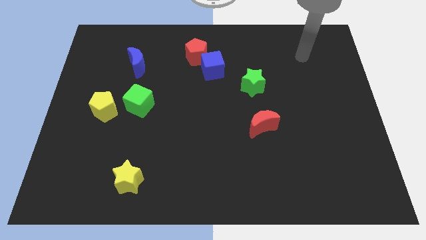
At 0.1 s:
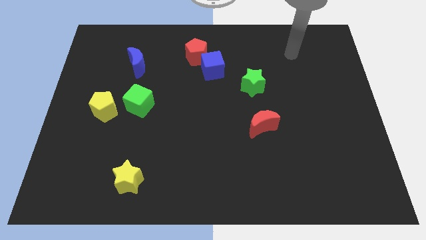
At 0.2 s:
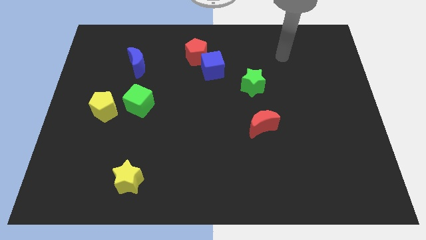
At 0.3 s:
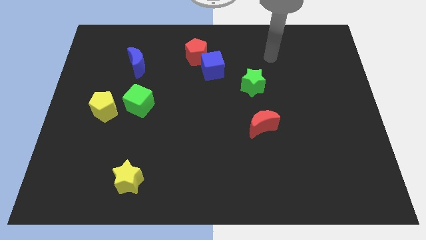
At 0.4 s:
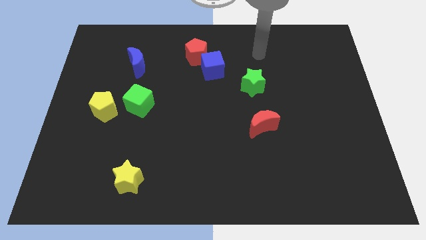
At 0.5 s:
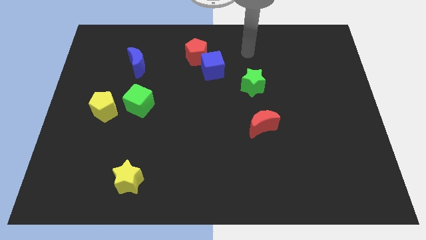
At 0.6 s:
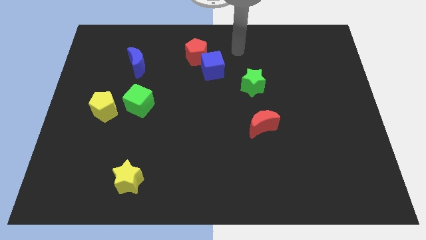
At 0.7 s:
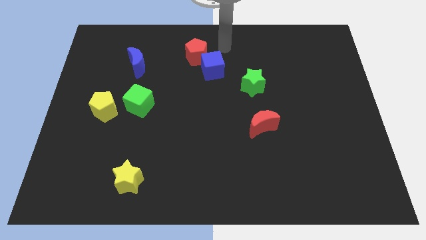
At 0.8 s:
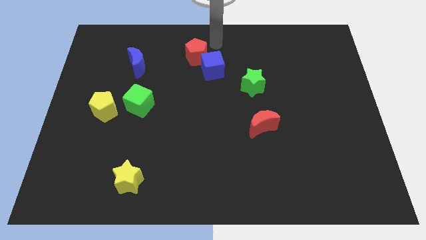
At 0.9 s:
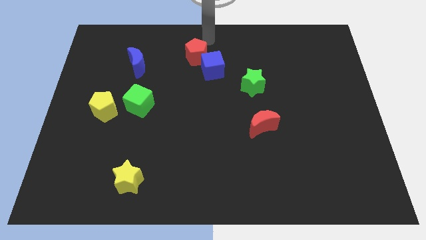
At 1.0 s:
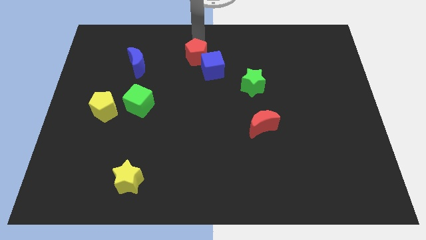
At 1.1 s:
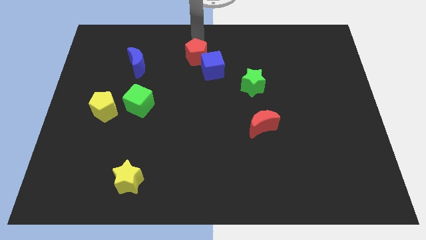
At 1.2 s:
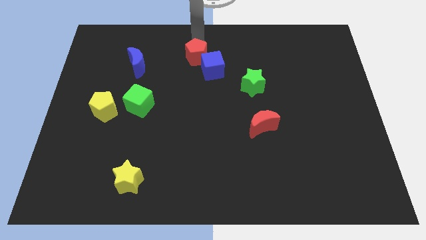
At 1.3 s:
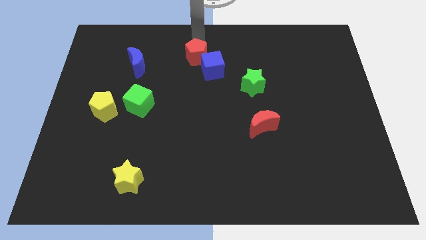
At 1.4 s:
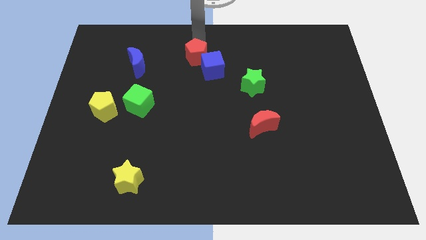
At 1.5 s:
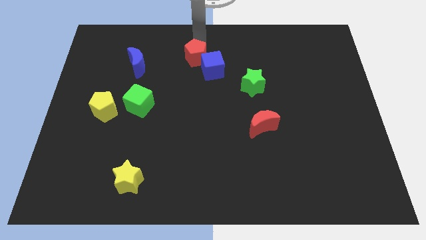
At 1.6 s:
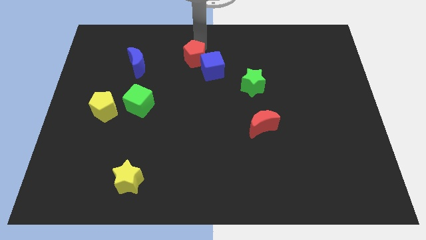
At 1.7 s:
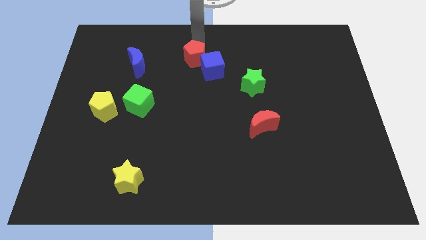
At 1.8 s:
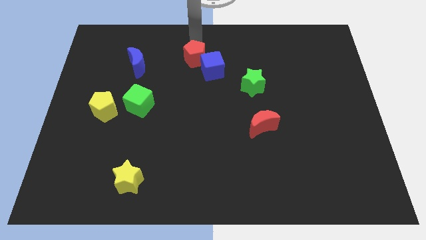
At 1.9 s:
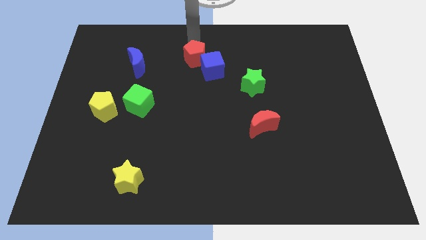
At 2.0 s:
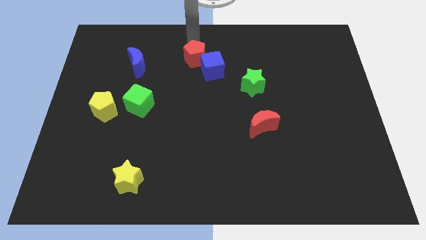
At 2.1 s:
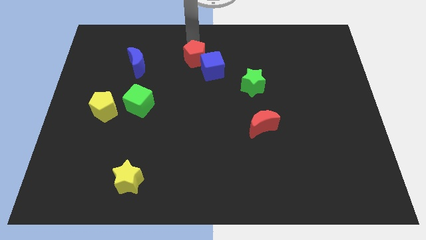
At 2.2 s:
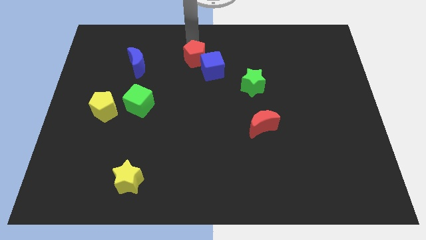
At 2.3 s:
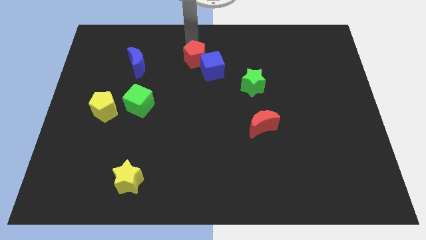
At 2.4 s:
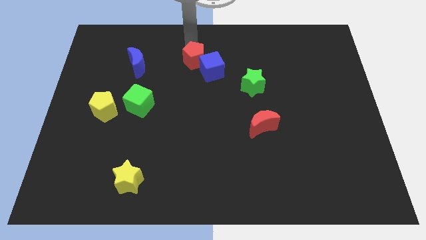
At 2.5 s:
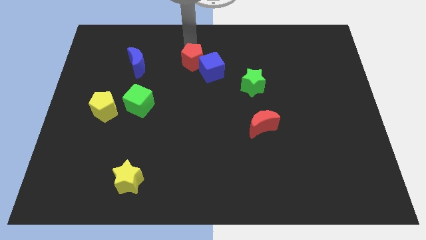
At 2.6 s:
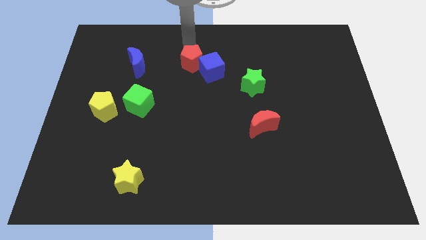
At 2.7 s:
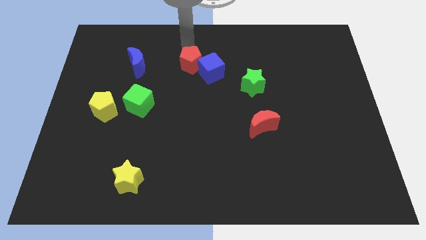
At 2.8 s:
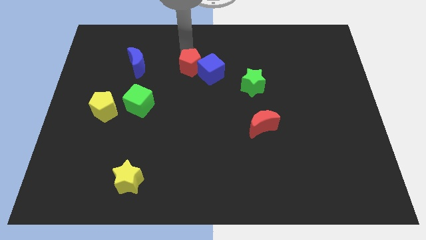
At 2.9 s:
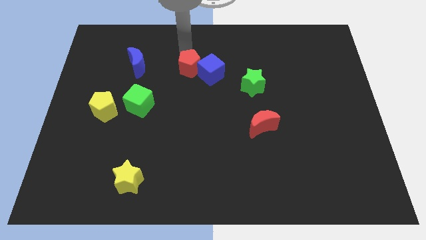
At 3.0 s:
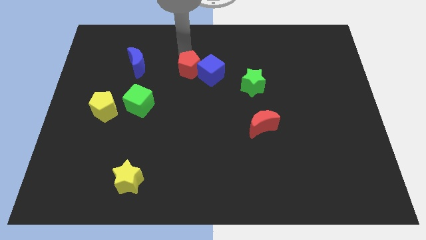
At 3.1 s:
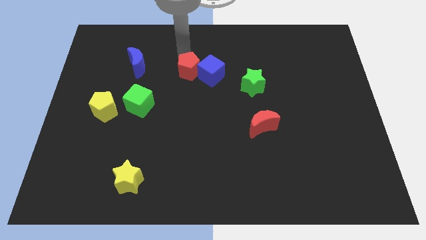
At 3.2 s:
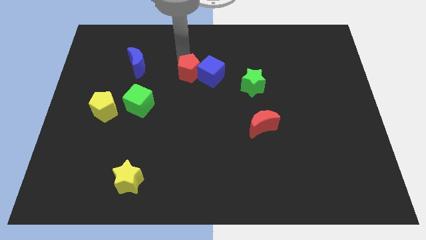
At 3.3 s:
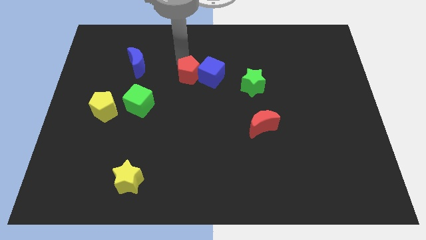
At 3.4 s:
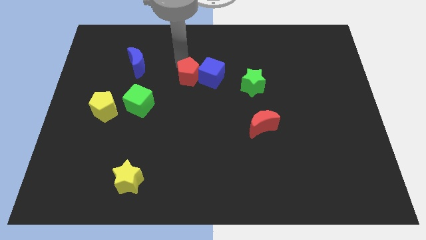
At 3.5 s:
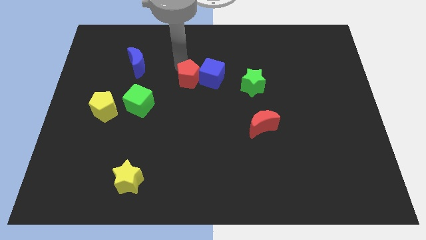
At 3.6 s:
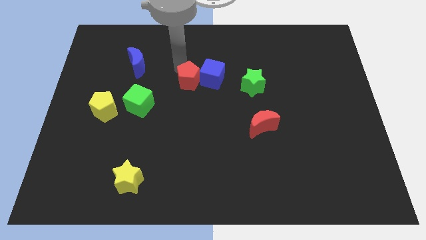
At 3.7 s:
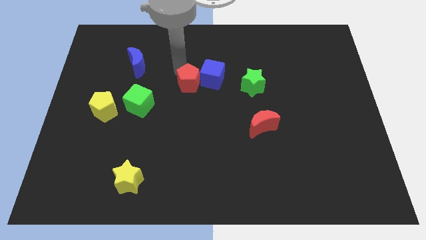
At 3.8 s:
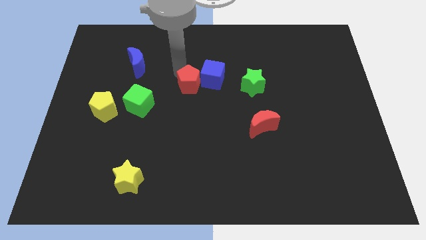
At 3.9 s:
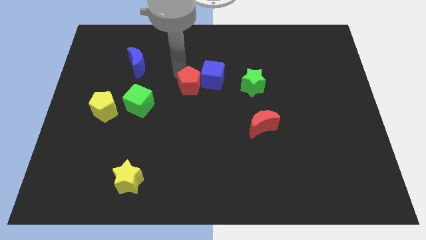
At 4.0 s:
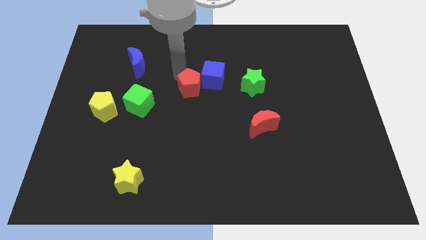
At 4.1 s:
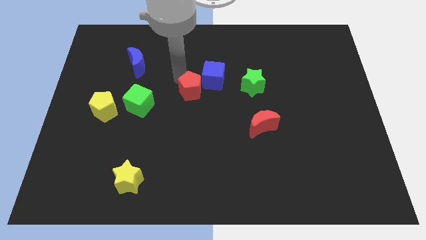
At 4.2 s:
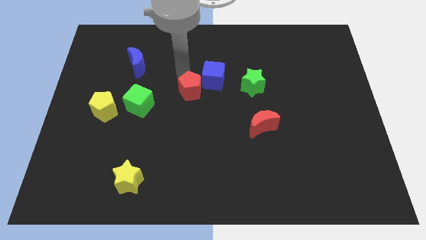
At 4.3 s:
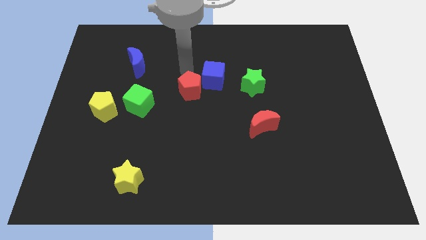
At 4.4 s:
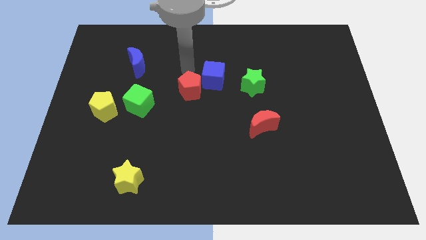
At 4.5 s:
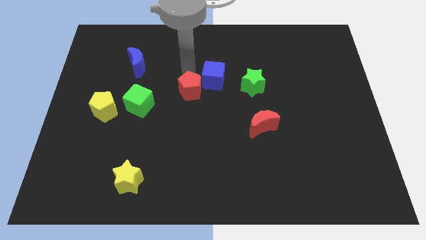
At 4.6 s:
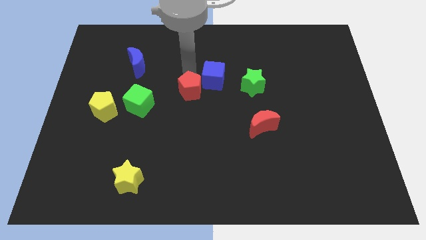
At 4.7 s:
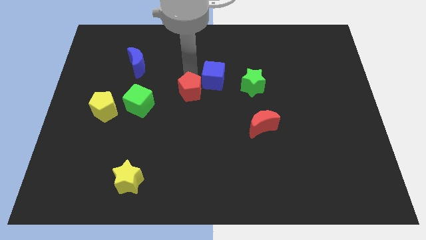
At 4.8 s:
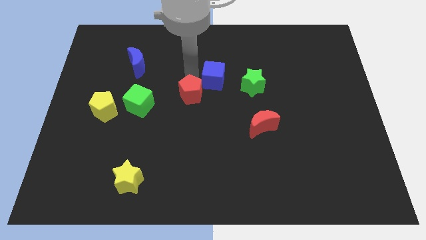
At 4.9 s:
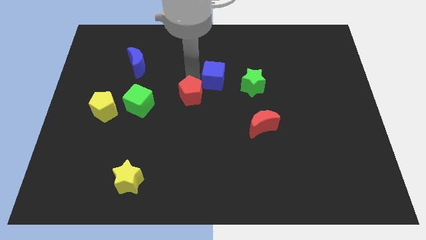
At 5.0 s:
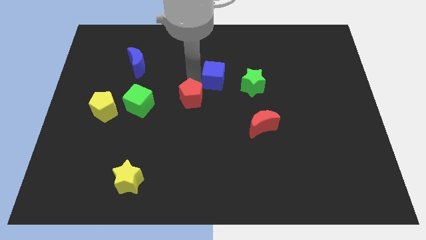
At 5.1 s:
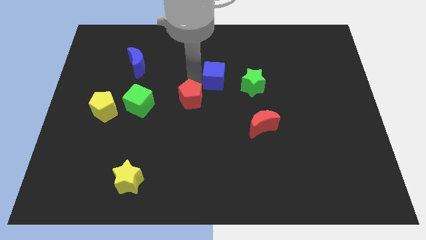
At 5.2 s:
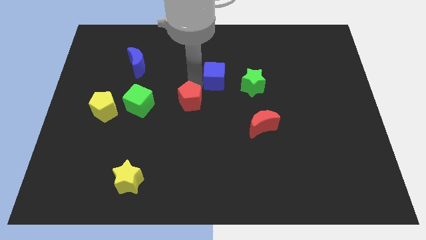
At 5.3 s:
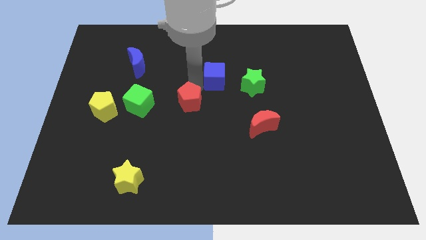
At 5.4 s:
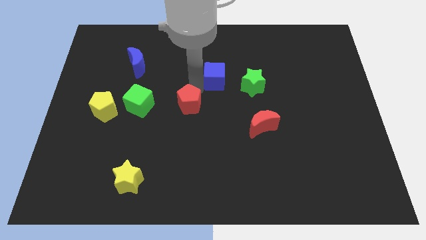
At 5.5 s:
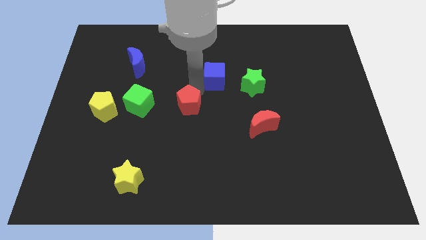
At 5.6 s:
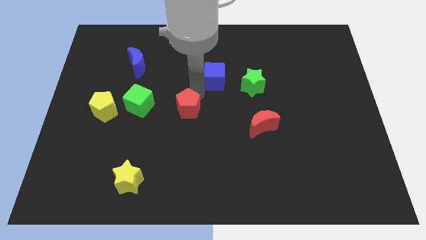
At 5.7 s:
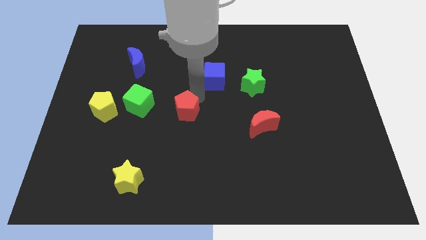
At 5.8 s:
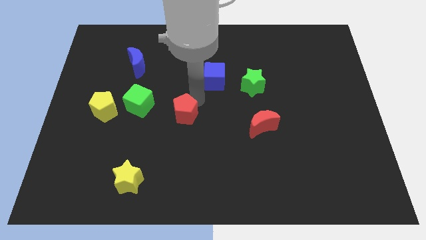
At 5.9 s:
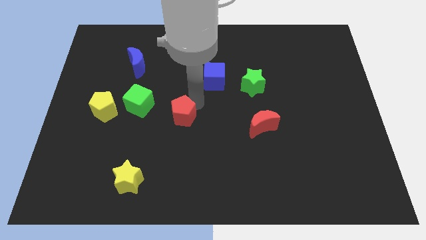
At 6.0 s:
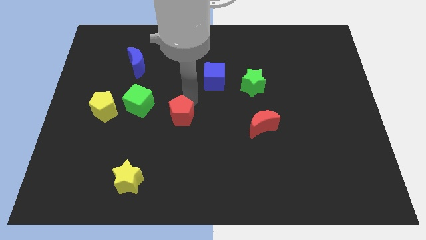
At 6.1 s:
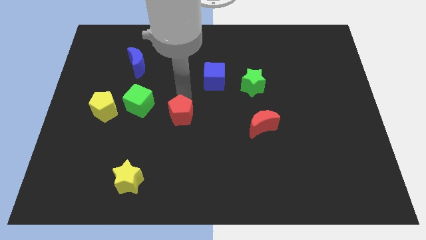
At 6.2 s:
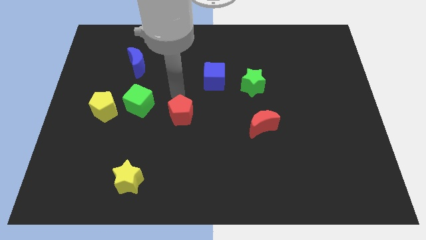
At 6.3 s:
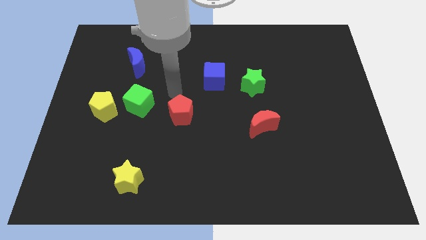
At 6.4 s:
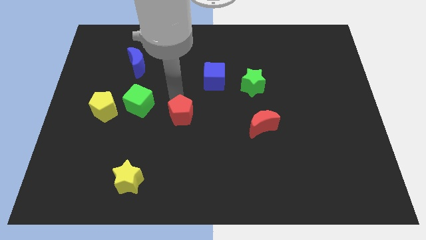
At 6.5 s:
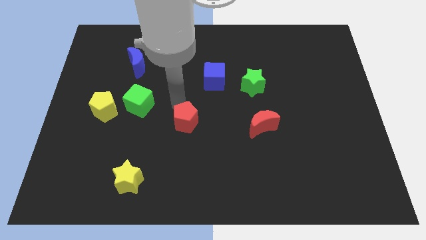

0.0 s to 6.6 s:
push the red pentagon down

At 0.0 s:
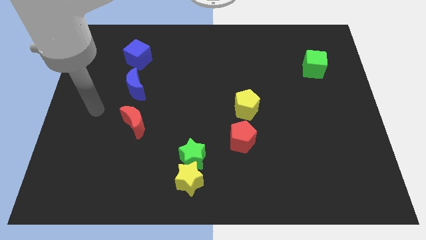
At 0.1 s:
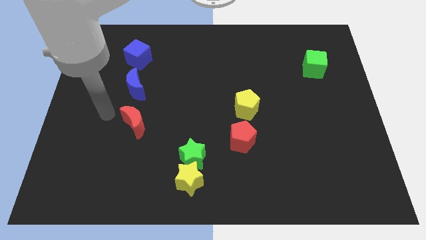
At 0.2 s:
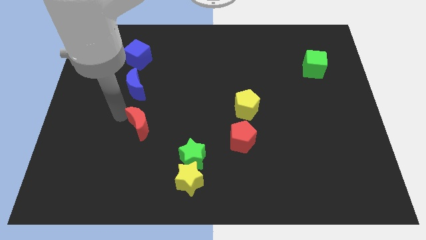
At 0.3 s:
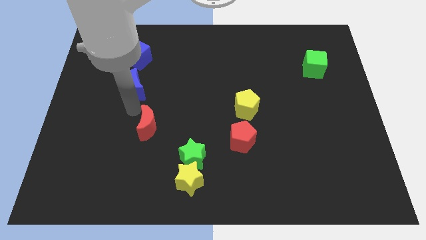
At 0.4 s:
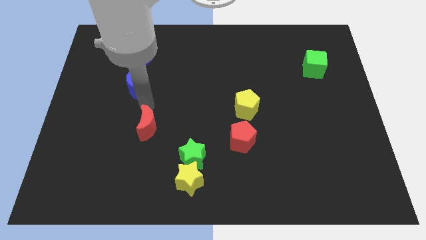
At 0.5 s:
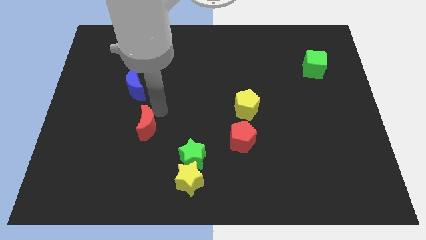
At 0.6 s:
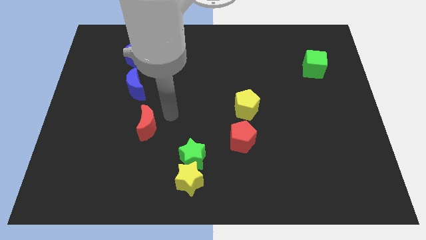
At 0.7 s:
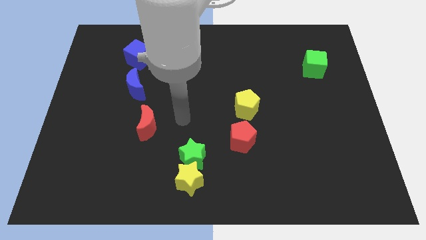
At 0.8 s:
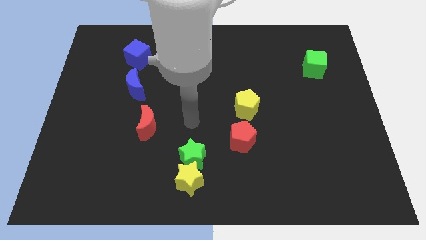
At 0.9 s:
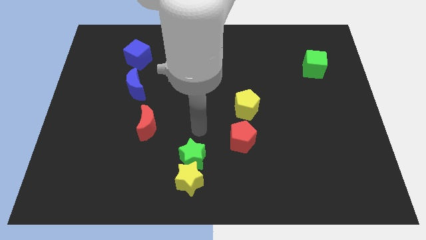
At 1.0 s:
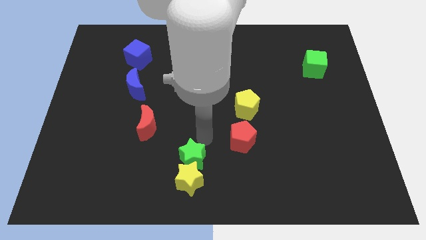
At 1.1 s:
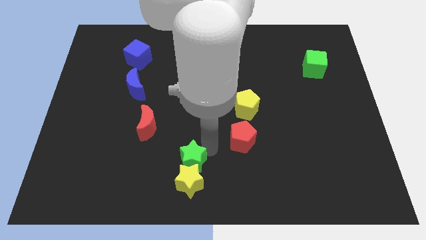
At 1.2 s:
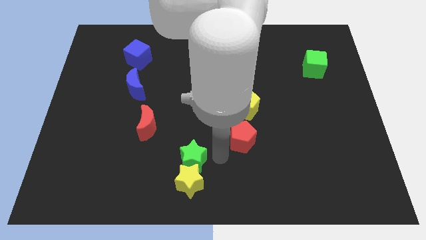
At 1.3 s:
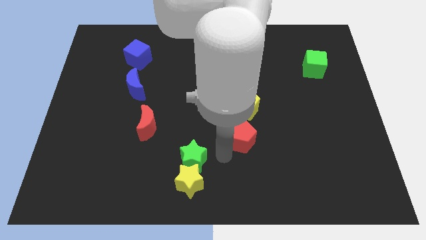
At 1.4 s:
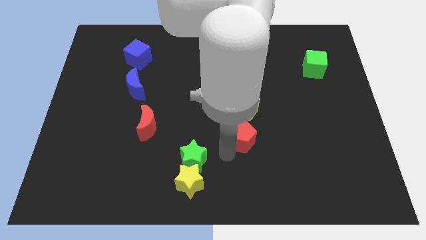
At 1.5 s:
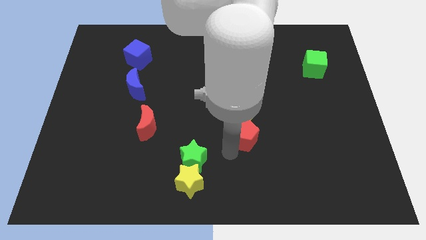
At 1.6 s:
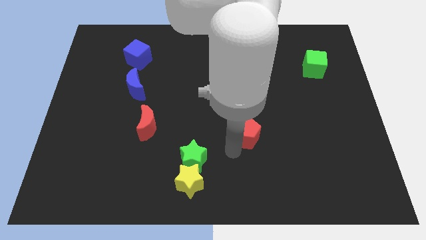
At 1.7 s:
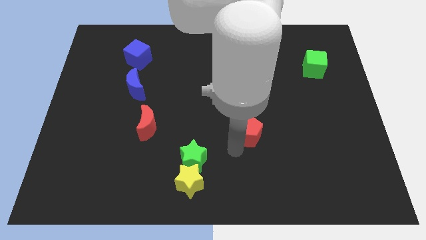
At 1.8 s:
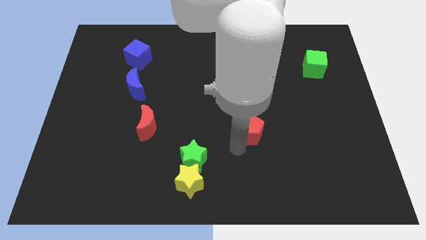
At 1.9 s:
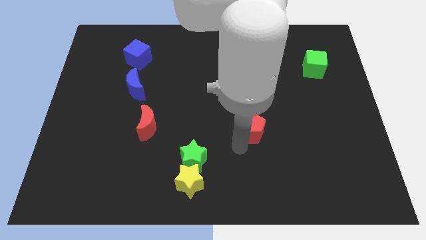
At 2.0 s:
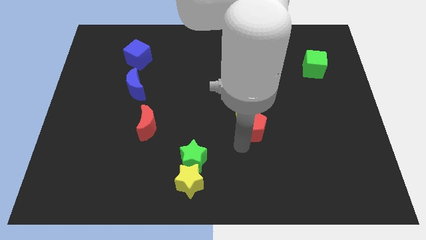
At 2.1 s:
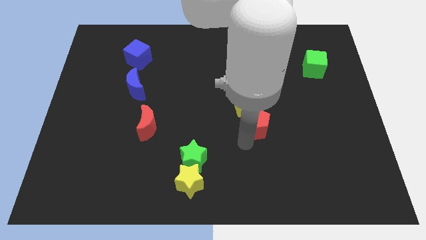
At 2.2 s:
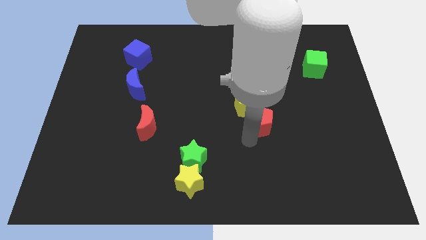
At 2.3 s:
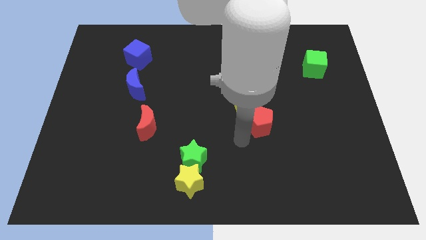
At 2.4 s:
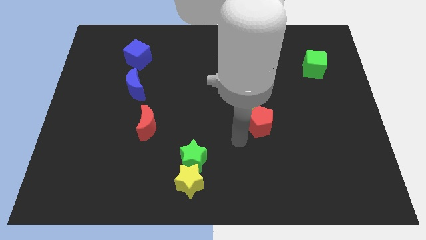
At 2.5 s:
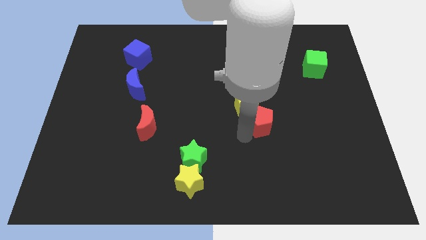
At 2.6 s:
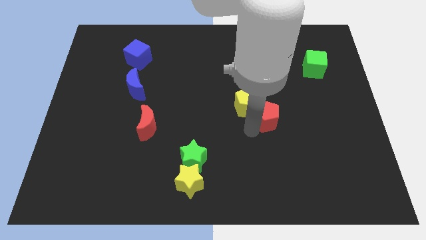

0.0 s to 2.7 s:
push the red pentagon upwards and then right slightly
